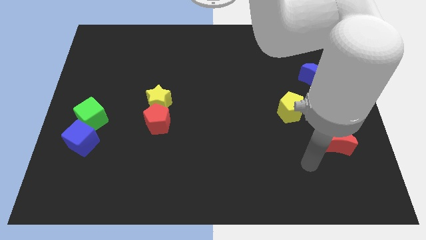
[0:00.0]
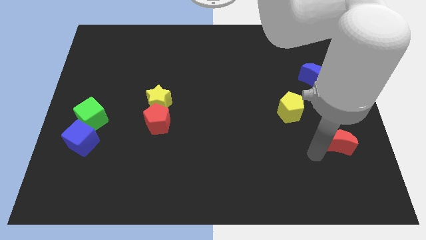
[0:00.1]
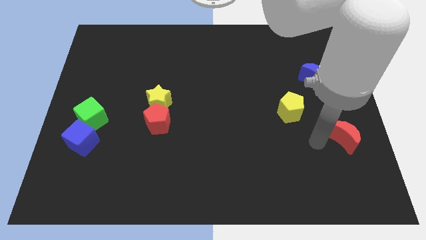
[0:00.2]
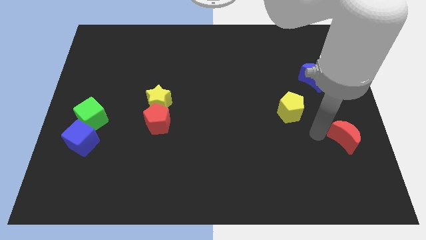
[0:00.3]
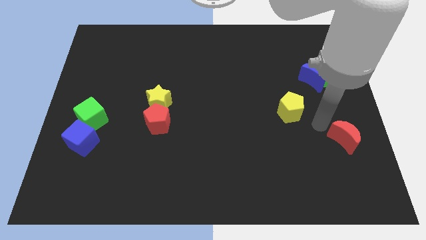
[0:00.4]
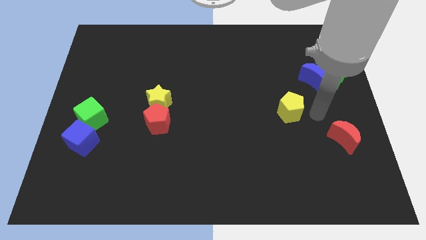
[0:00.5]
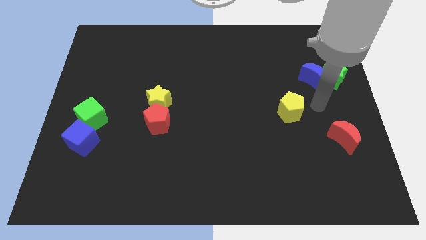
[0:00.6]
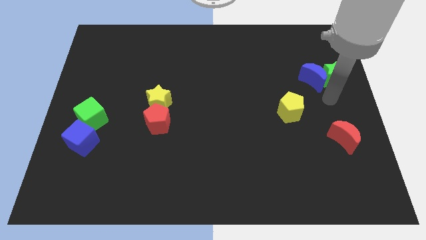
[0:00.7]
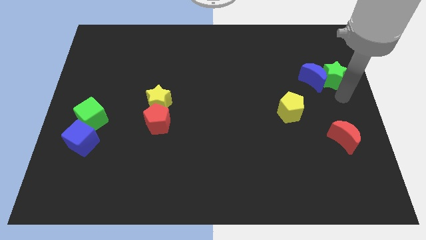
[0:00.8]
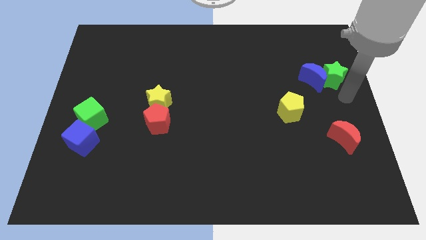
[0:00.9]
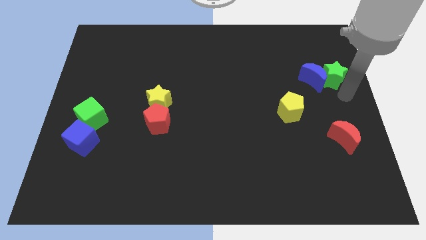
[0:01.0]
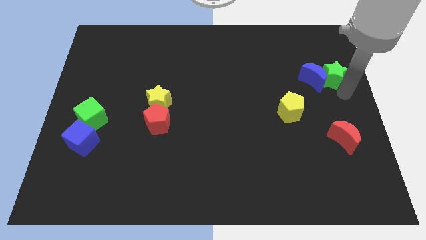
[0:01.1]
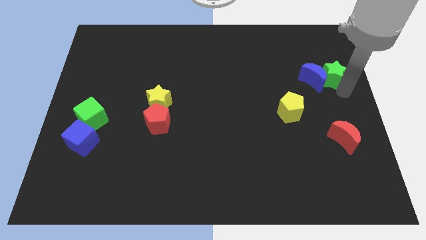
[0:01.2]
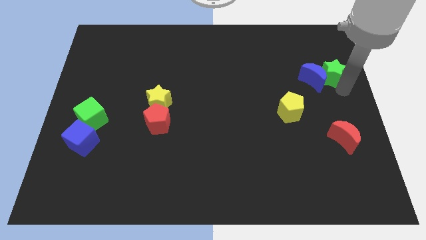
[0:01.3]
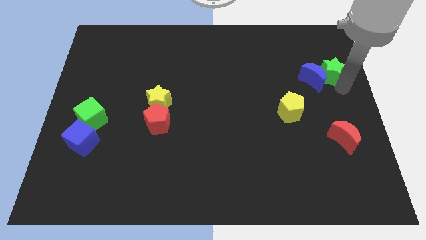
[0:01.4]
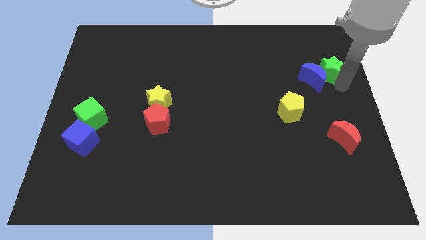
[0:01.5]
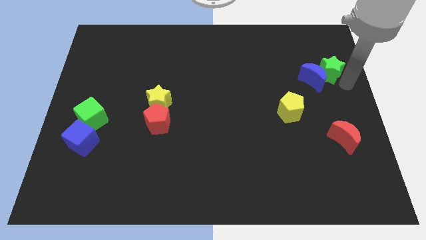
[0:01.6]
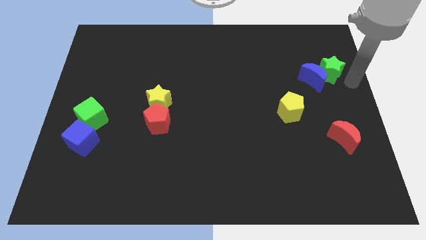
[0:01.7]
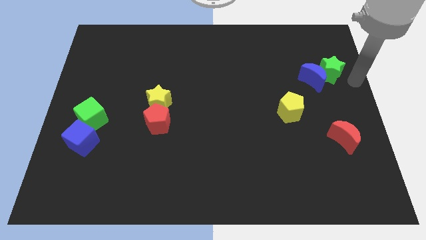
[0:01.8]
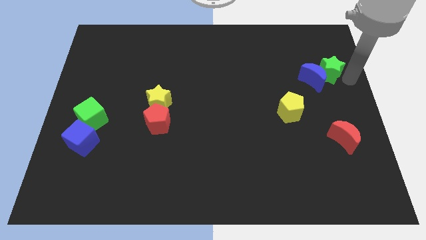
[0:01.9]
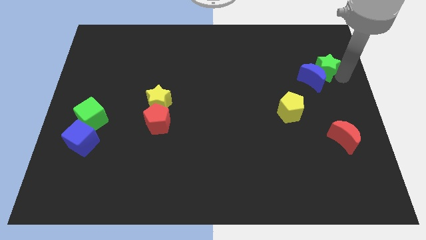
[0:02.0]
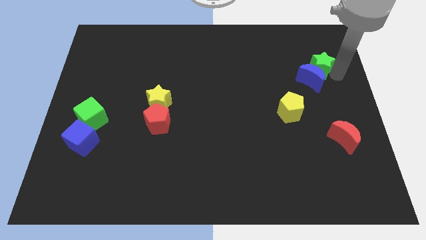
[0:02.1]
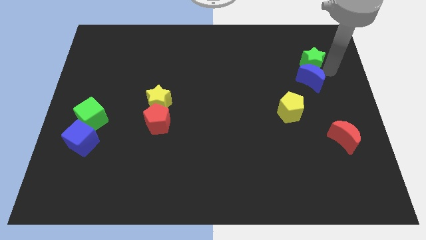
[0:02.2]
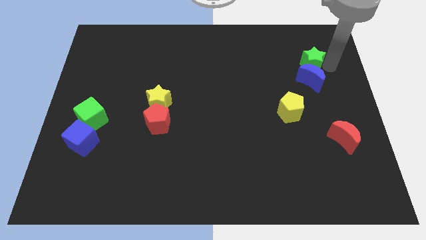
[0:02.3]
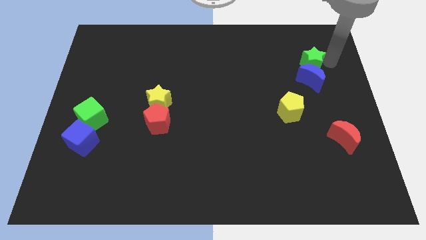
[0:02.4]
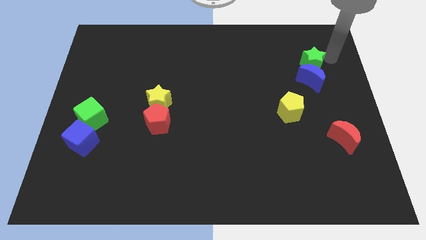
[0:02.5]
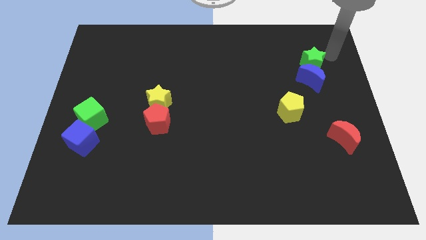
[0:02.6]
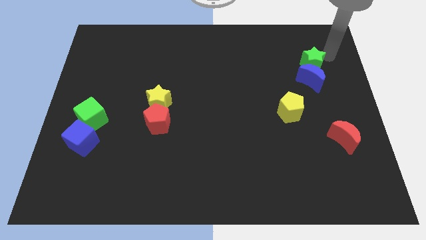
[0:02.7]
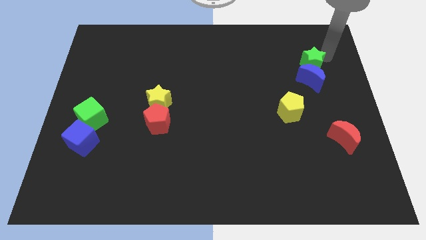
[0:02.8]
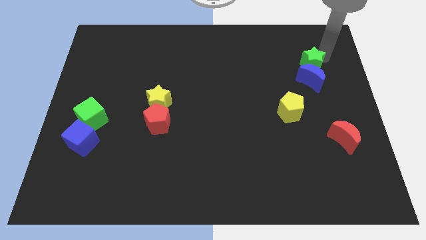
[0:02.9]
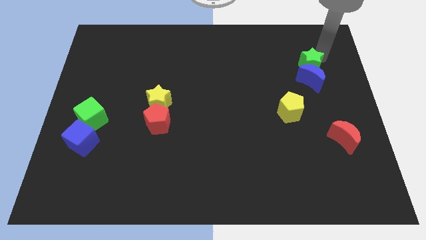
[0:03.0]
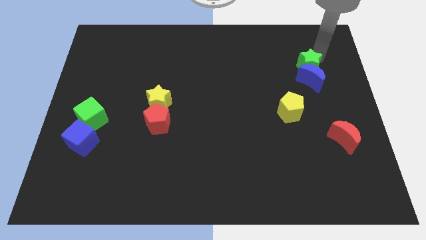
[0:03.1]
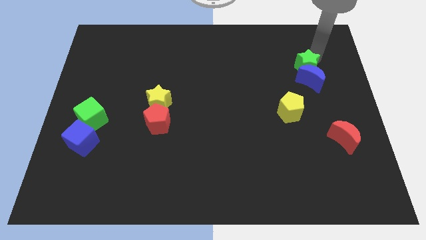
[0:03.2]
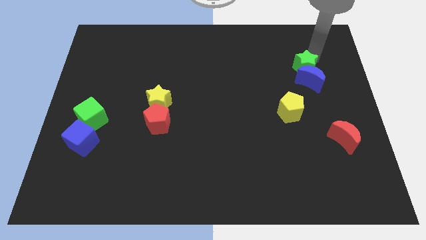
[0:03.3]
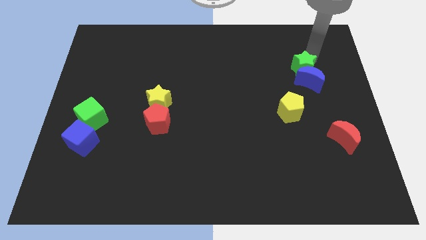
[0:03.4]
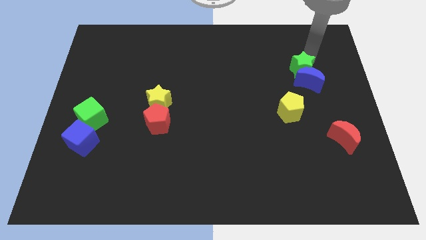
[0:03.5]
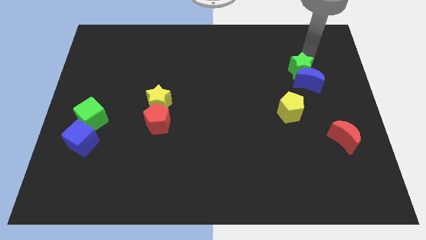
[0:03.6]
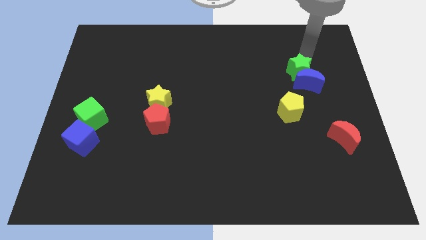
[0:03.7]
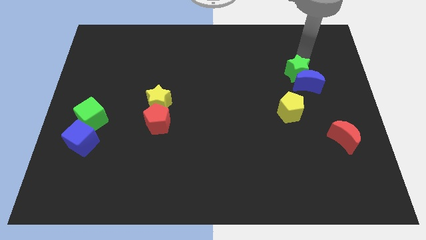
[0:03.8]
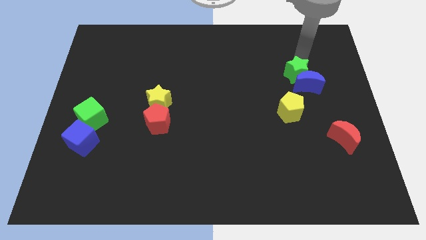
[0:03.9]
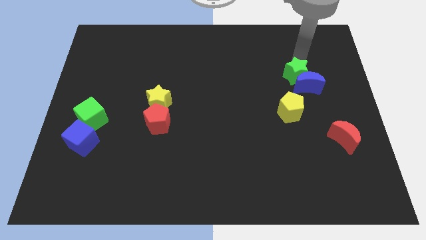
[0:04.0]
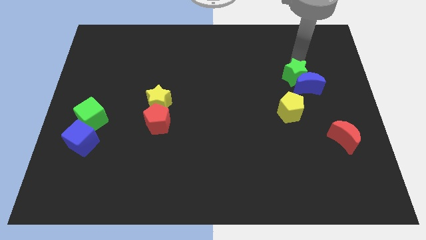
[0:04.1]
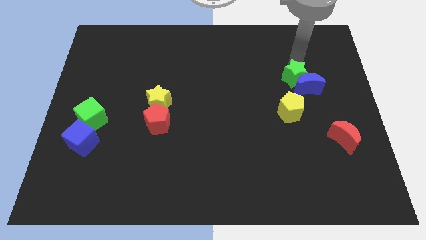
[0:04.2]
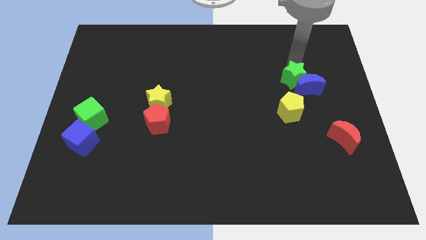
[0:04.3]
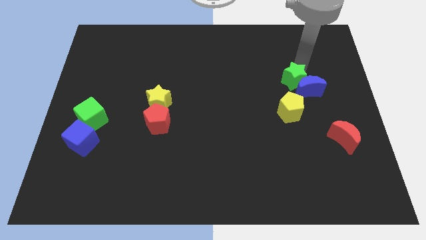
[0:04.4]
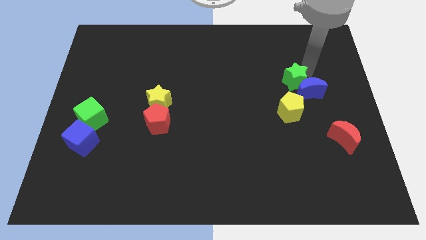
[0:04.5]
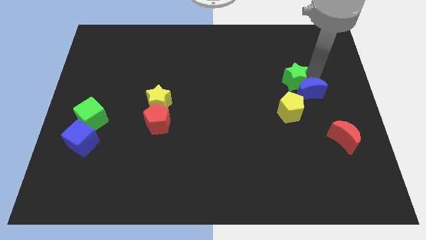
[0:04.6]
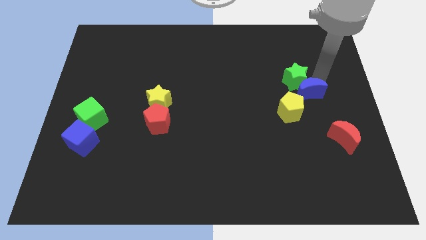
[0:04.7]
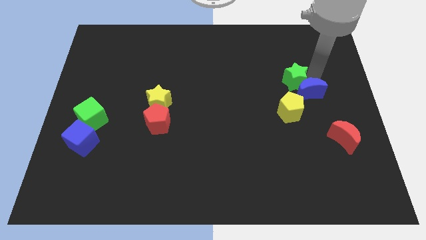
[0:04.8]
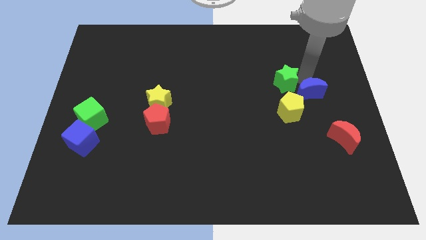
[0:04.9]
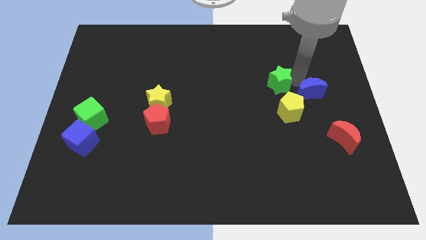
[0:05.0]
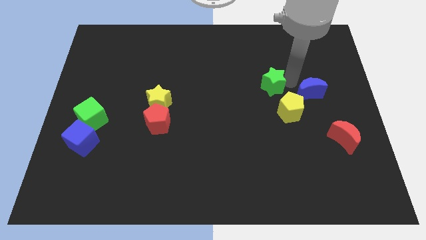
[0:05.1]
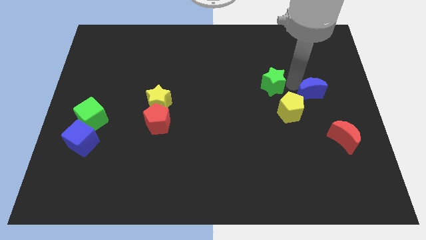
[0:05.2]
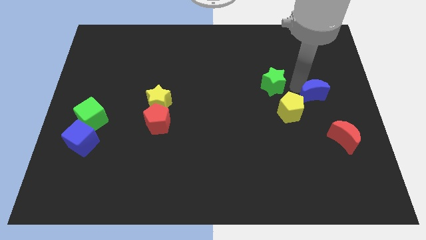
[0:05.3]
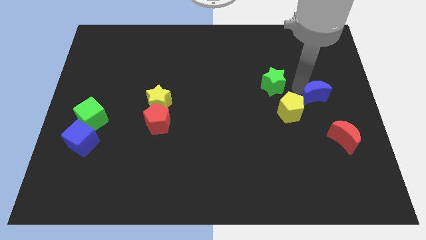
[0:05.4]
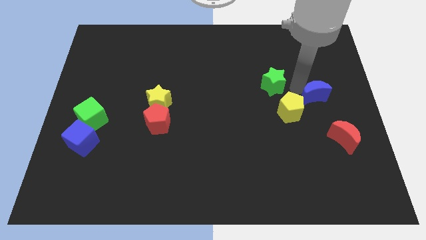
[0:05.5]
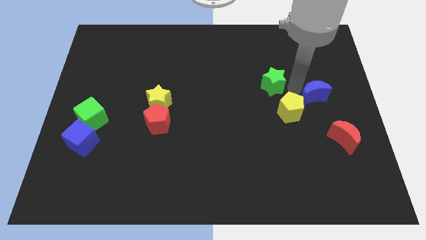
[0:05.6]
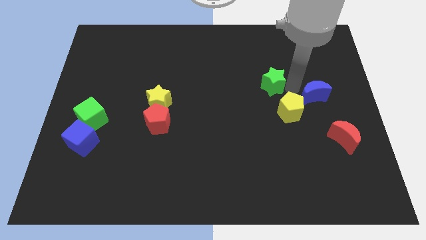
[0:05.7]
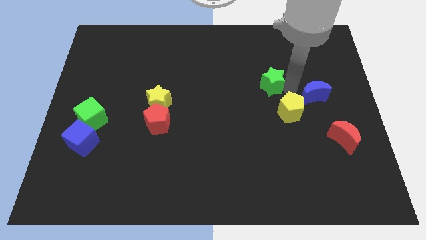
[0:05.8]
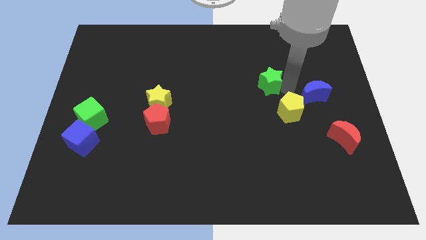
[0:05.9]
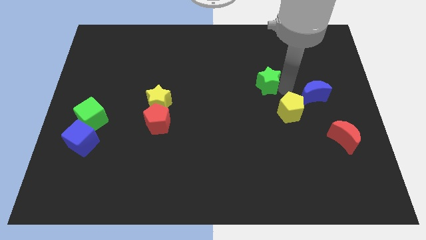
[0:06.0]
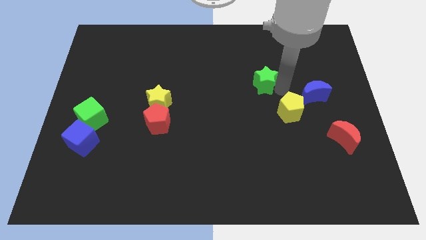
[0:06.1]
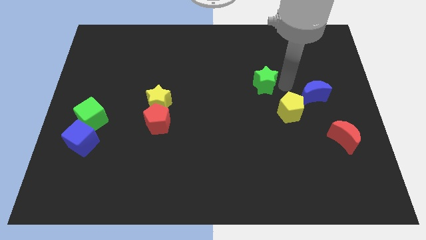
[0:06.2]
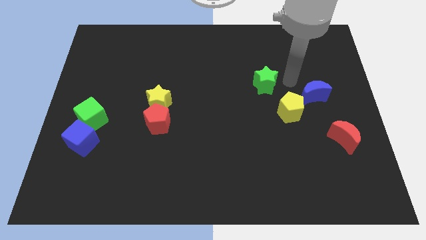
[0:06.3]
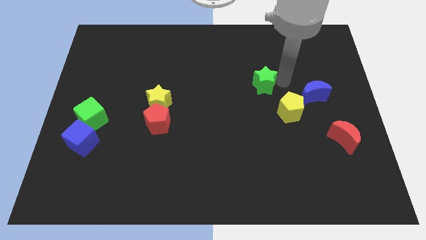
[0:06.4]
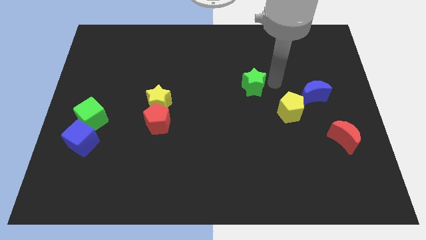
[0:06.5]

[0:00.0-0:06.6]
push the green star to the middle
